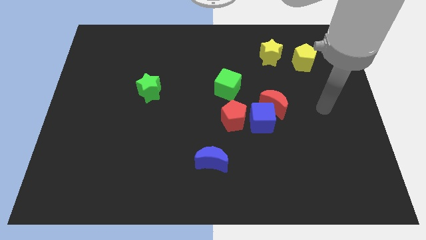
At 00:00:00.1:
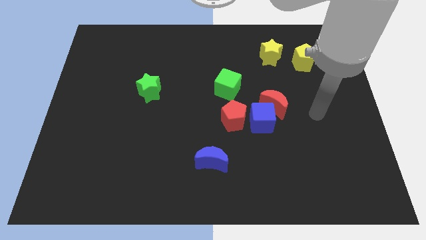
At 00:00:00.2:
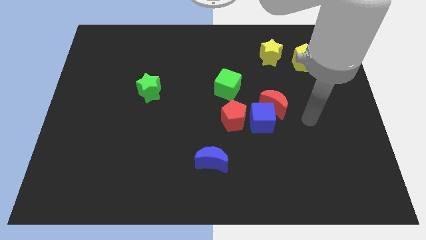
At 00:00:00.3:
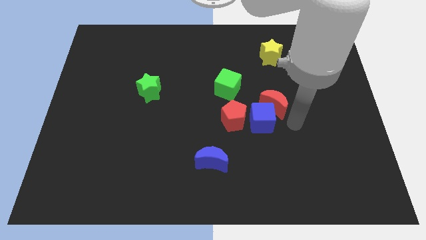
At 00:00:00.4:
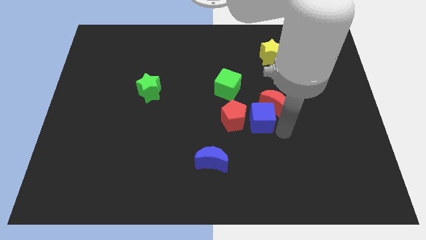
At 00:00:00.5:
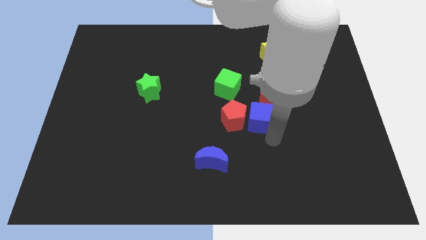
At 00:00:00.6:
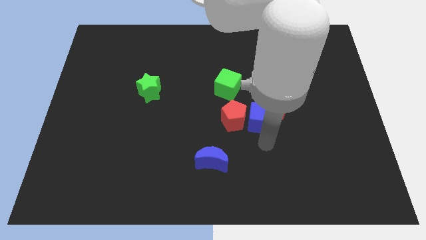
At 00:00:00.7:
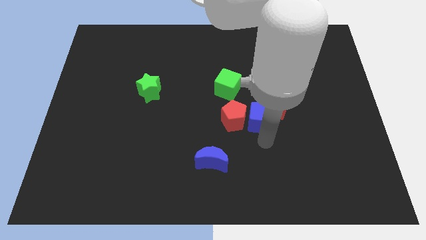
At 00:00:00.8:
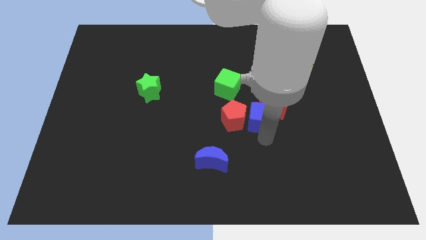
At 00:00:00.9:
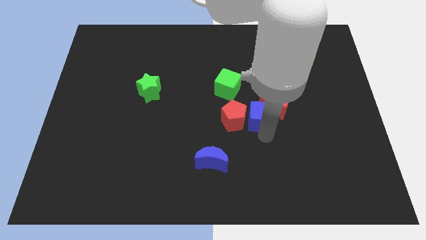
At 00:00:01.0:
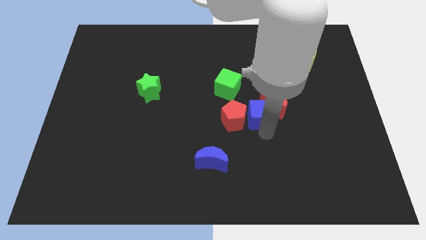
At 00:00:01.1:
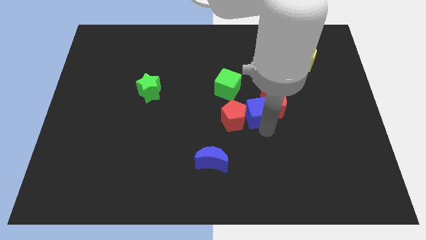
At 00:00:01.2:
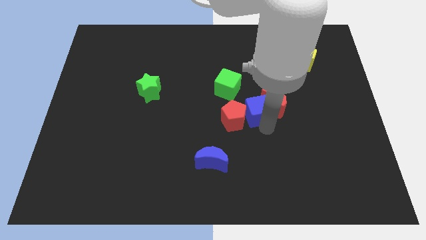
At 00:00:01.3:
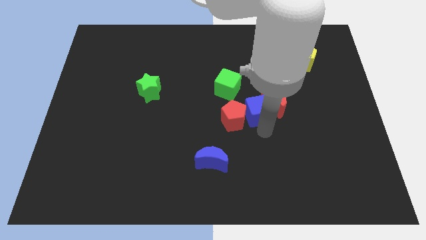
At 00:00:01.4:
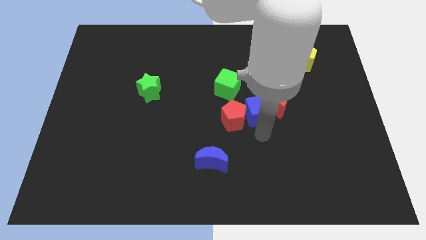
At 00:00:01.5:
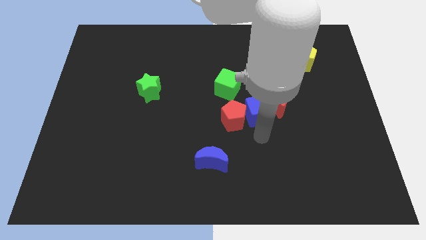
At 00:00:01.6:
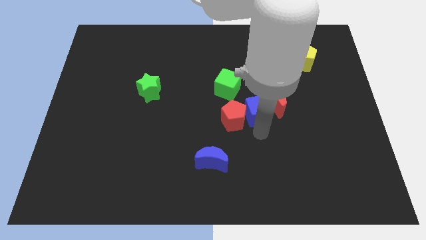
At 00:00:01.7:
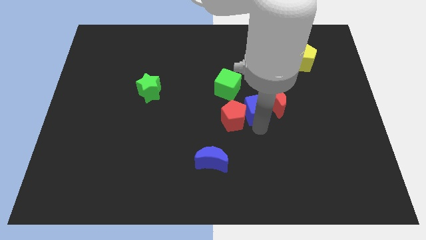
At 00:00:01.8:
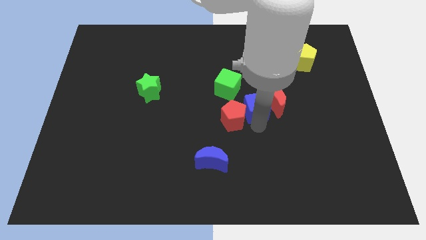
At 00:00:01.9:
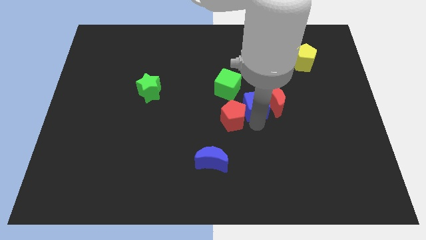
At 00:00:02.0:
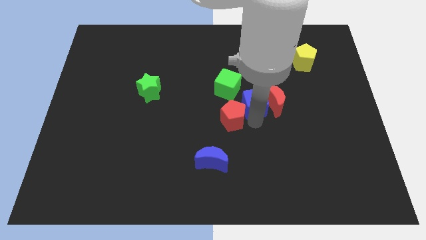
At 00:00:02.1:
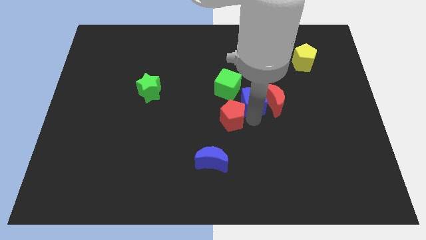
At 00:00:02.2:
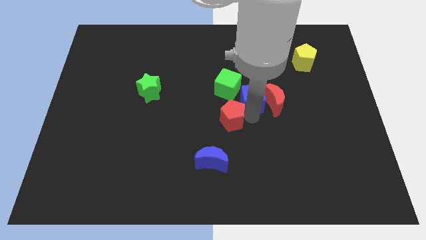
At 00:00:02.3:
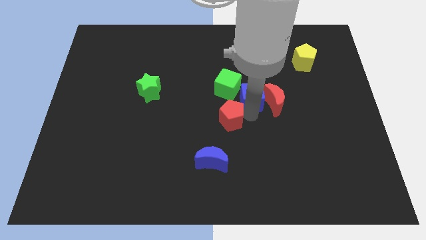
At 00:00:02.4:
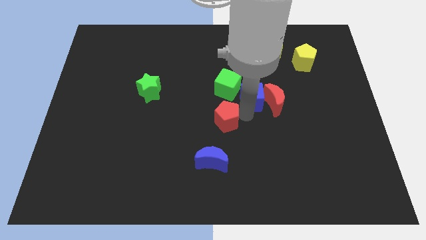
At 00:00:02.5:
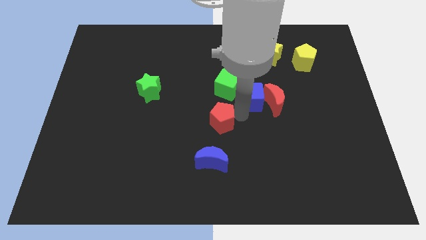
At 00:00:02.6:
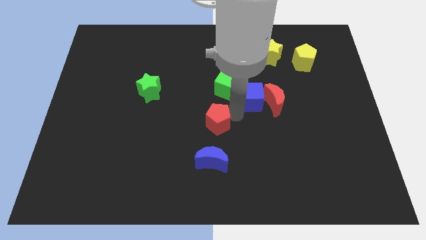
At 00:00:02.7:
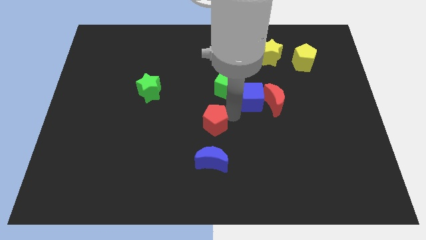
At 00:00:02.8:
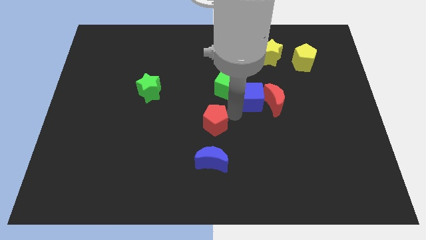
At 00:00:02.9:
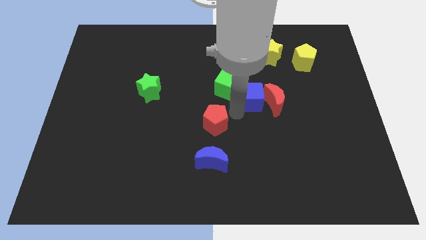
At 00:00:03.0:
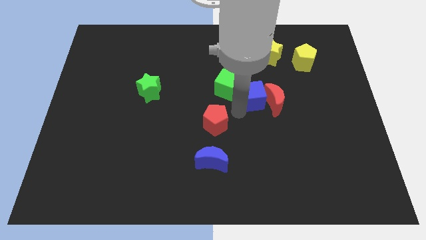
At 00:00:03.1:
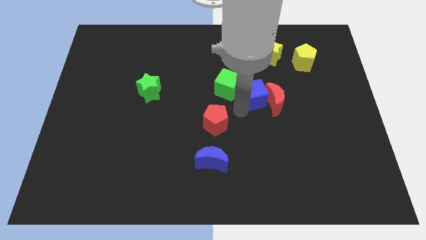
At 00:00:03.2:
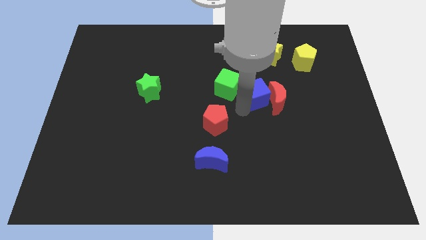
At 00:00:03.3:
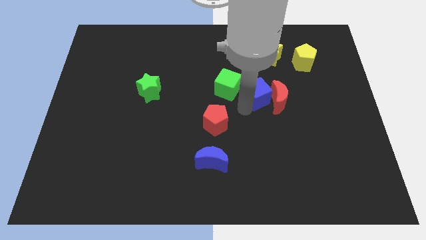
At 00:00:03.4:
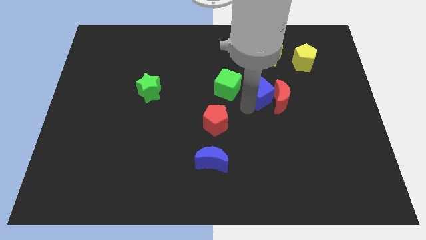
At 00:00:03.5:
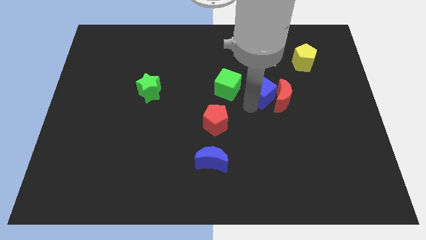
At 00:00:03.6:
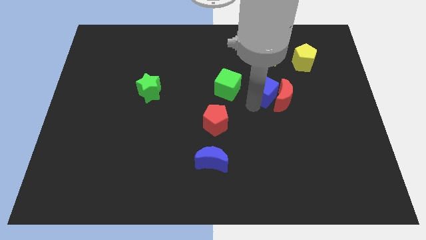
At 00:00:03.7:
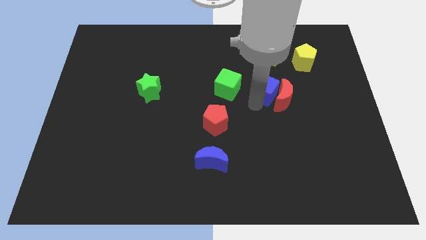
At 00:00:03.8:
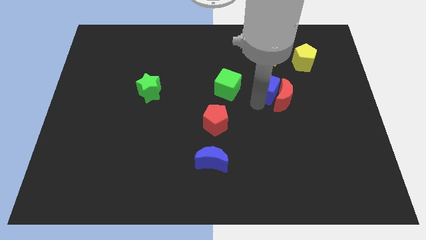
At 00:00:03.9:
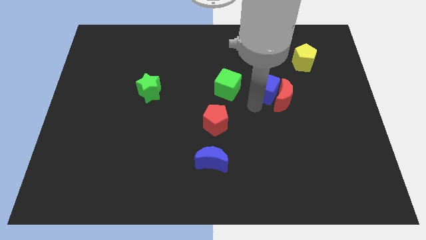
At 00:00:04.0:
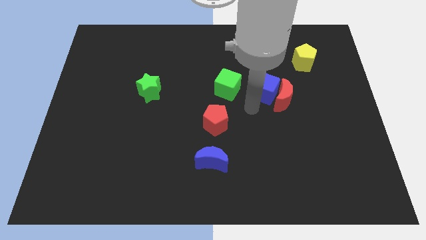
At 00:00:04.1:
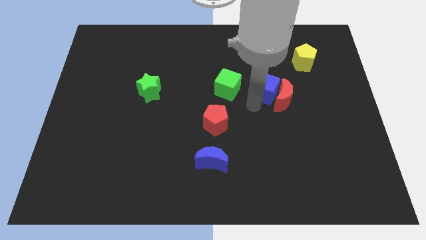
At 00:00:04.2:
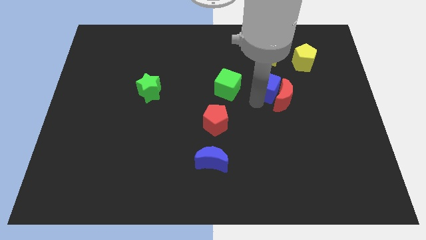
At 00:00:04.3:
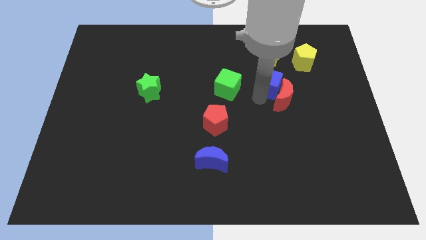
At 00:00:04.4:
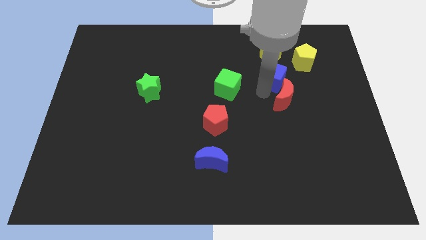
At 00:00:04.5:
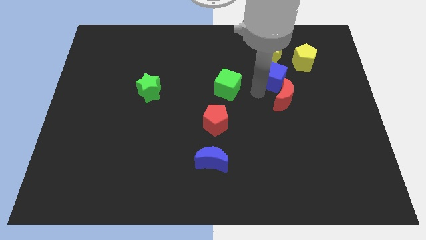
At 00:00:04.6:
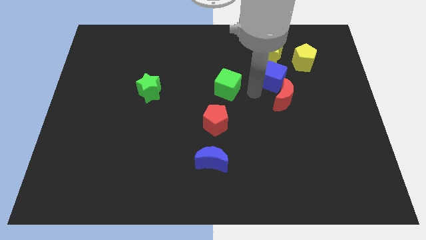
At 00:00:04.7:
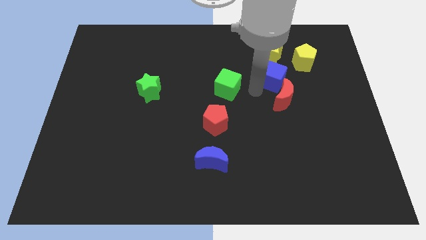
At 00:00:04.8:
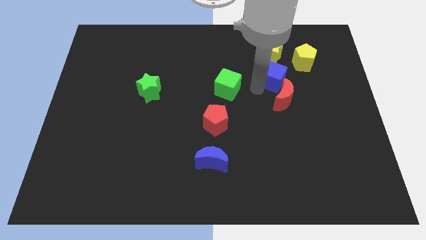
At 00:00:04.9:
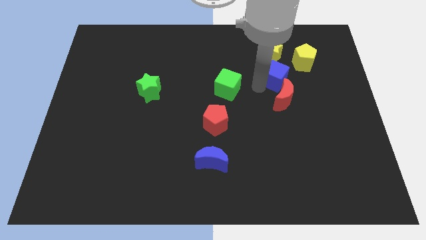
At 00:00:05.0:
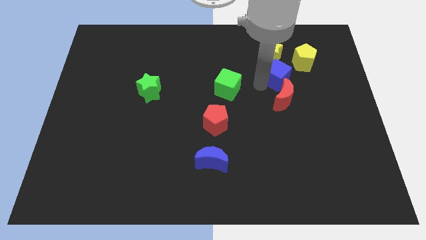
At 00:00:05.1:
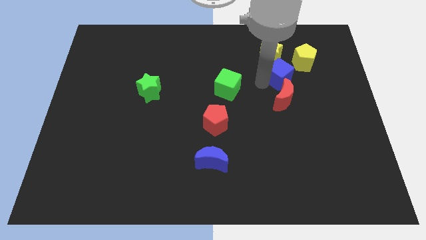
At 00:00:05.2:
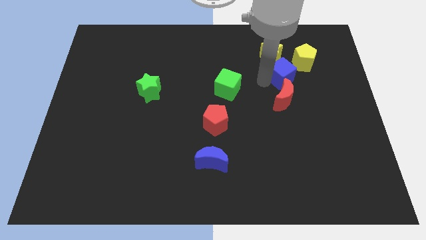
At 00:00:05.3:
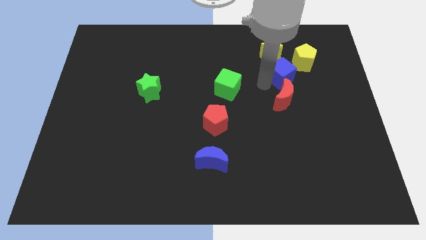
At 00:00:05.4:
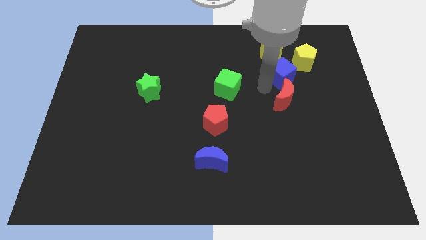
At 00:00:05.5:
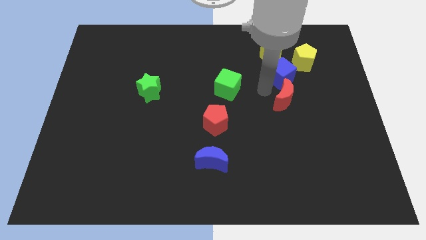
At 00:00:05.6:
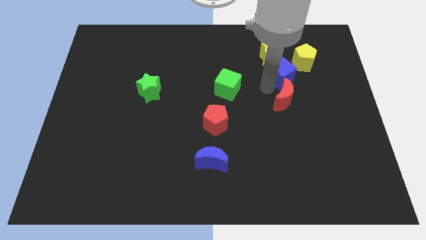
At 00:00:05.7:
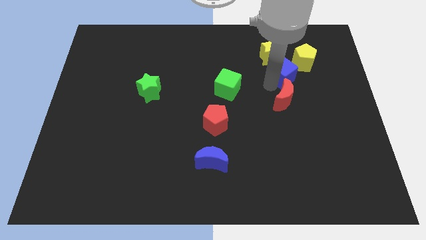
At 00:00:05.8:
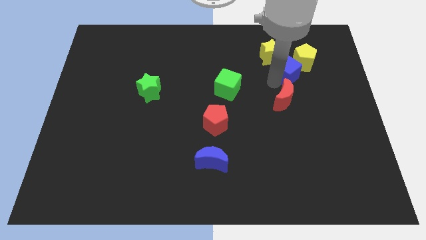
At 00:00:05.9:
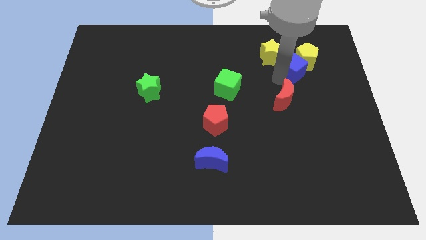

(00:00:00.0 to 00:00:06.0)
put the blue cube close to the yellow pentagon

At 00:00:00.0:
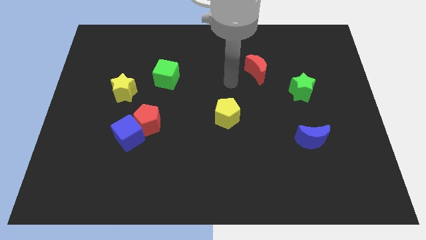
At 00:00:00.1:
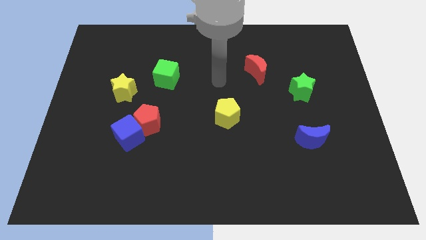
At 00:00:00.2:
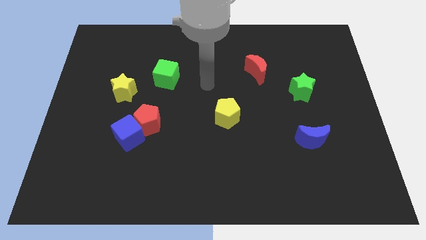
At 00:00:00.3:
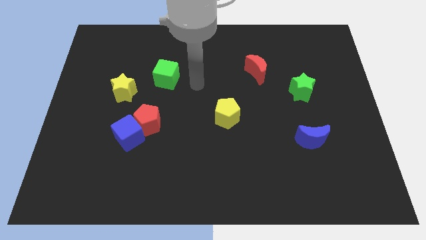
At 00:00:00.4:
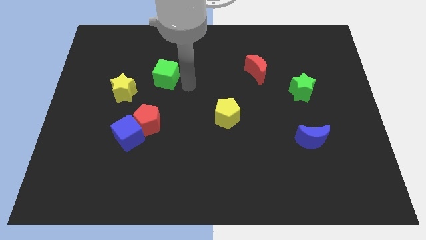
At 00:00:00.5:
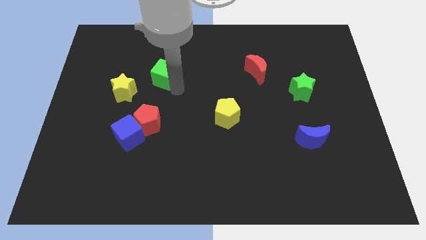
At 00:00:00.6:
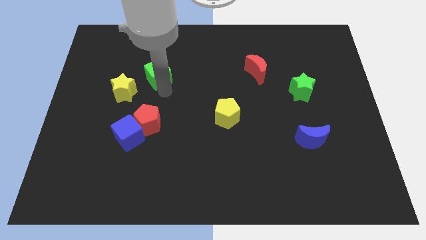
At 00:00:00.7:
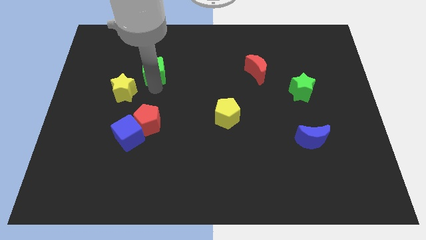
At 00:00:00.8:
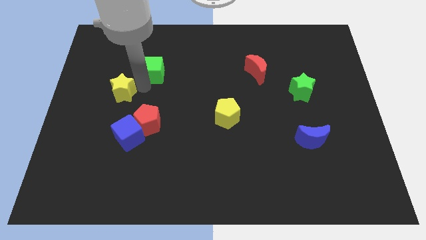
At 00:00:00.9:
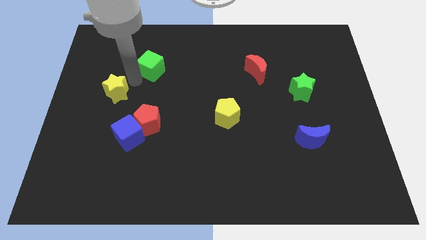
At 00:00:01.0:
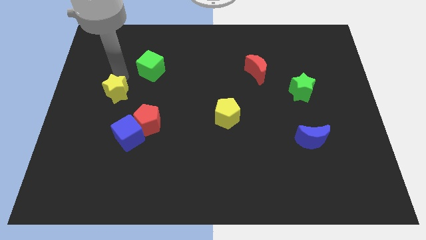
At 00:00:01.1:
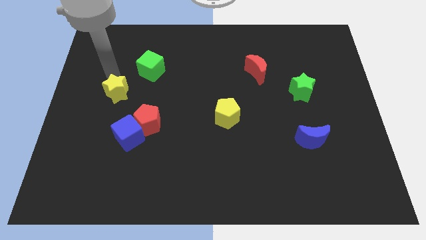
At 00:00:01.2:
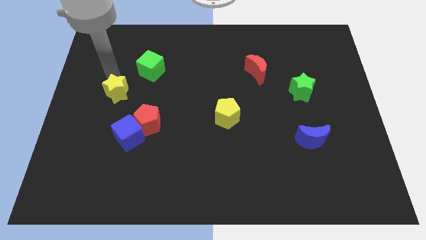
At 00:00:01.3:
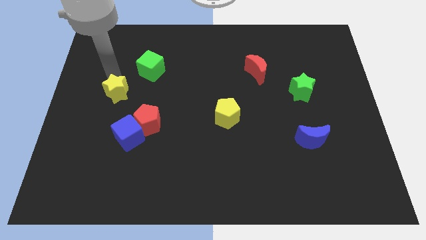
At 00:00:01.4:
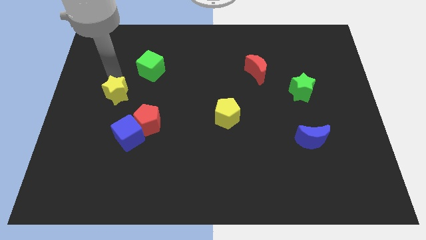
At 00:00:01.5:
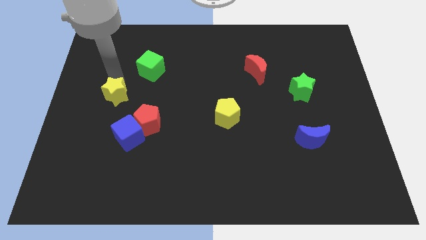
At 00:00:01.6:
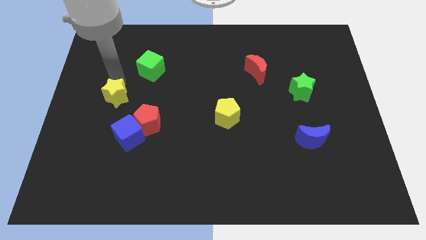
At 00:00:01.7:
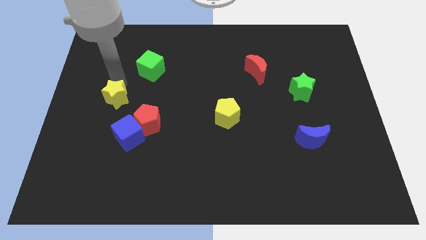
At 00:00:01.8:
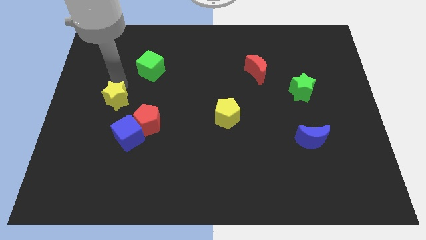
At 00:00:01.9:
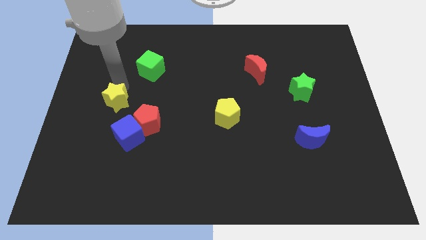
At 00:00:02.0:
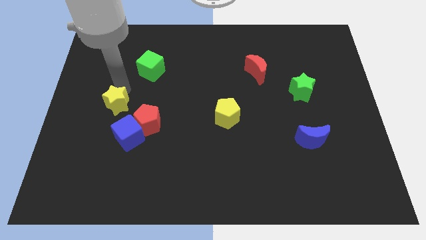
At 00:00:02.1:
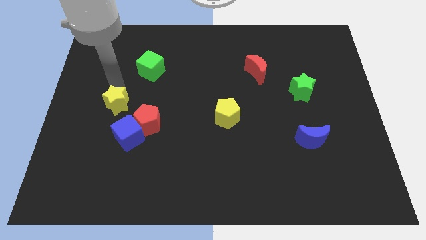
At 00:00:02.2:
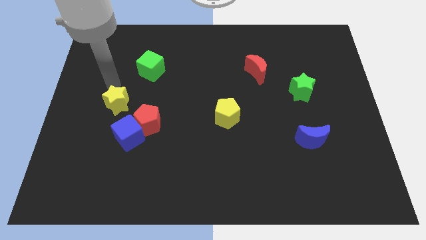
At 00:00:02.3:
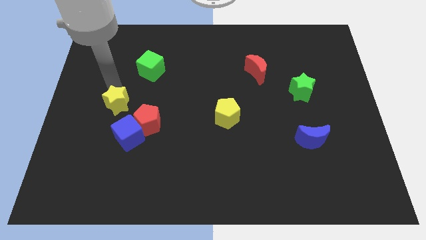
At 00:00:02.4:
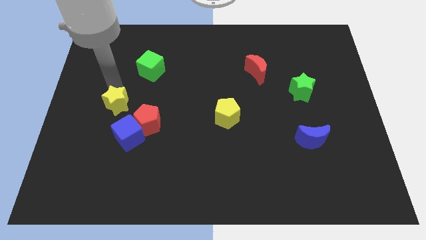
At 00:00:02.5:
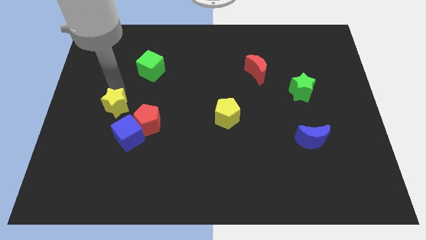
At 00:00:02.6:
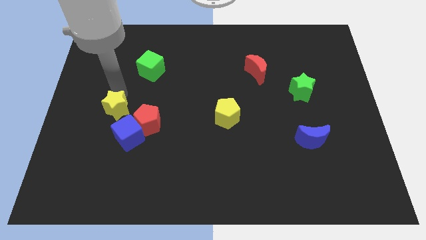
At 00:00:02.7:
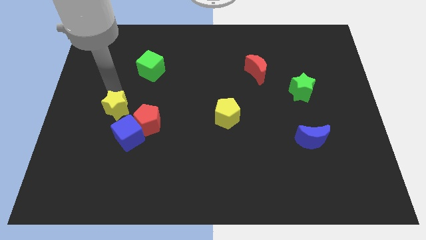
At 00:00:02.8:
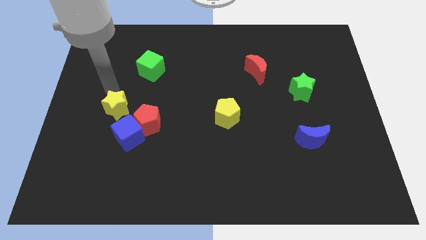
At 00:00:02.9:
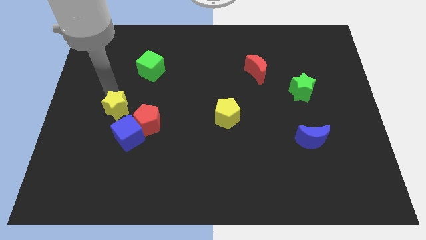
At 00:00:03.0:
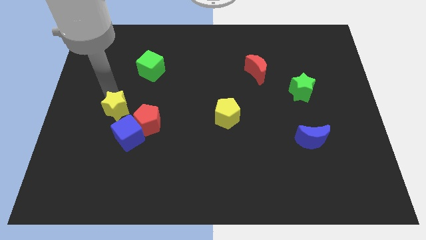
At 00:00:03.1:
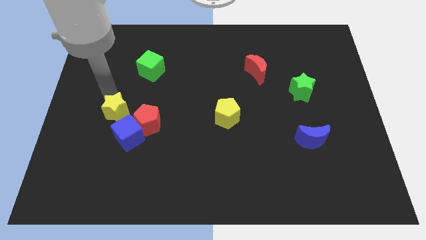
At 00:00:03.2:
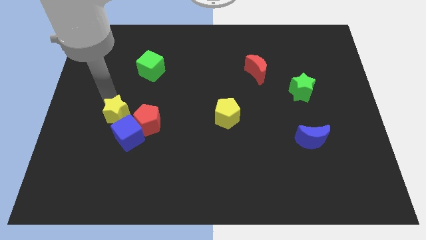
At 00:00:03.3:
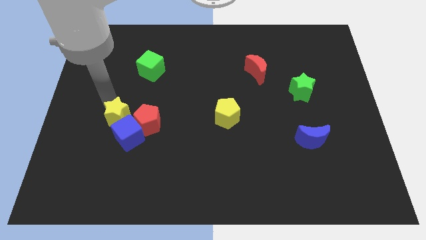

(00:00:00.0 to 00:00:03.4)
push the yellow star next to the blue cube
